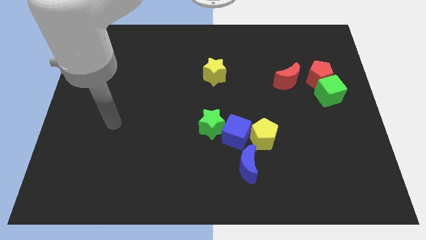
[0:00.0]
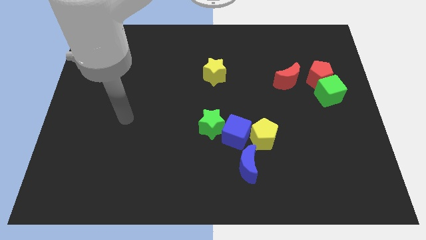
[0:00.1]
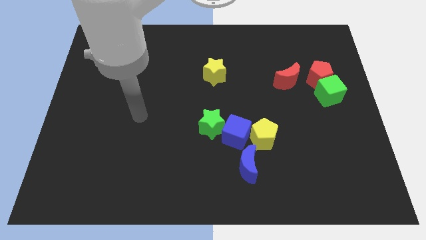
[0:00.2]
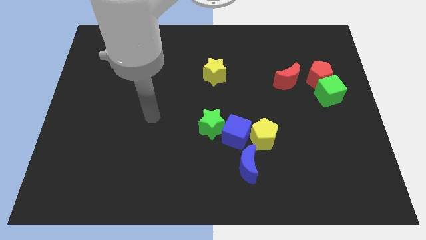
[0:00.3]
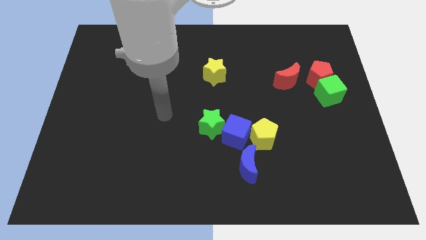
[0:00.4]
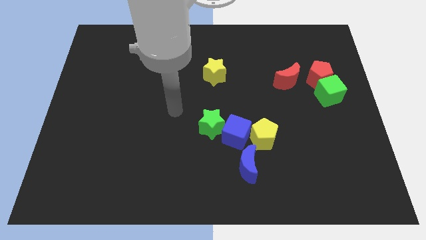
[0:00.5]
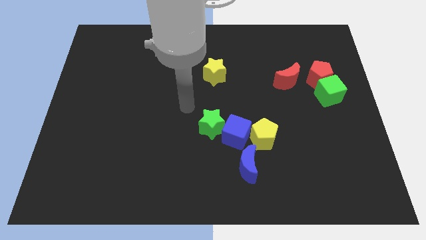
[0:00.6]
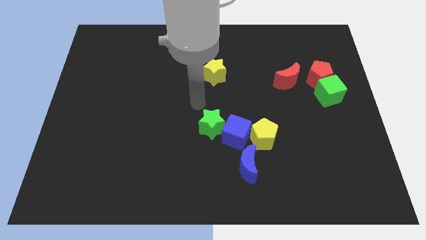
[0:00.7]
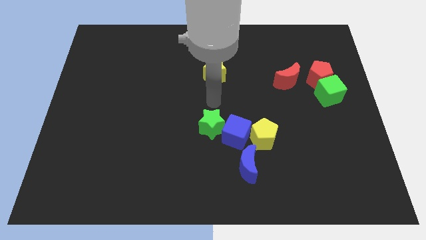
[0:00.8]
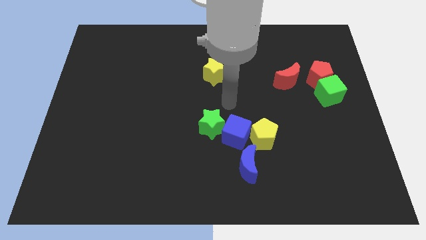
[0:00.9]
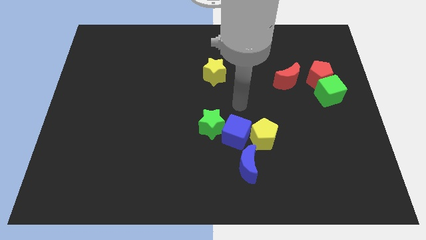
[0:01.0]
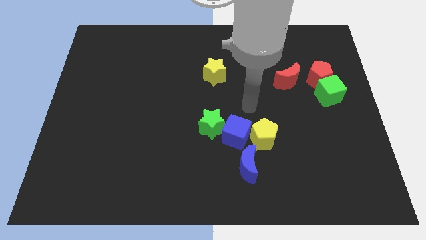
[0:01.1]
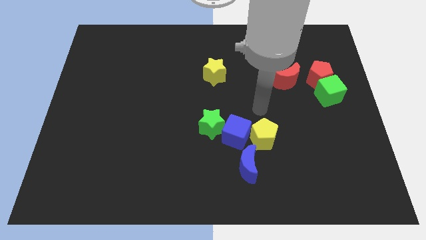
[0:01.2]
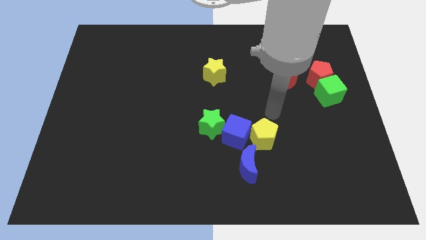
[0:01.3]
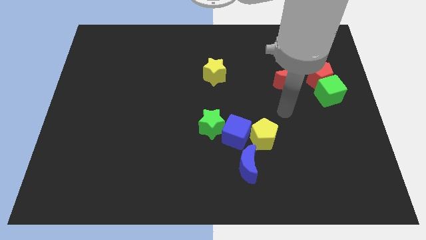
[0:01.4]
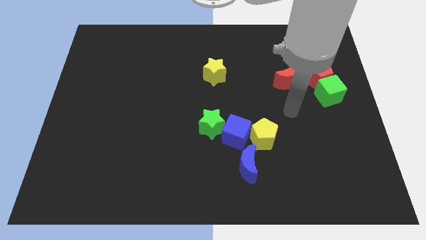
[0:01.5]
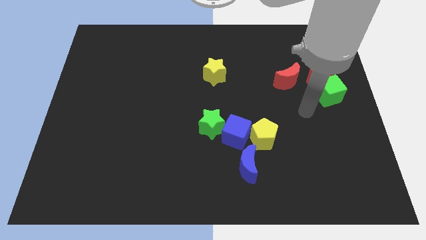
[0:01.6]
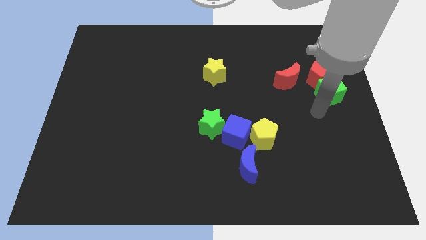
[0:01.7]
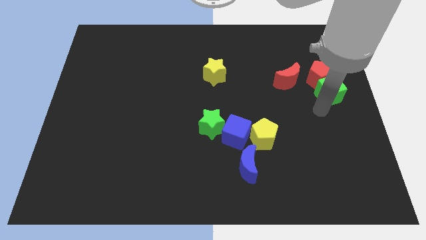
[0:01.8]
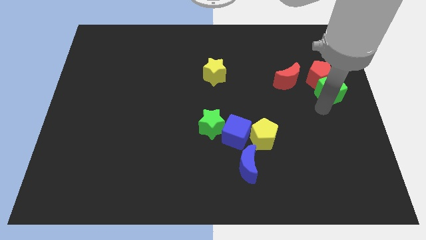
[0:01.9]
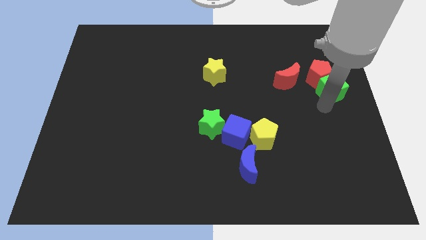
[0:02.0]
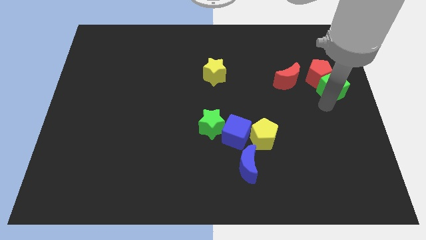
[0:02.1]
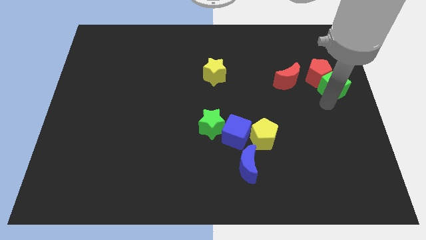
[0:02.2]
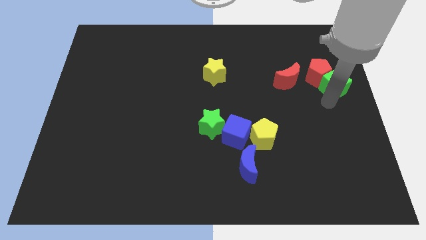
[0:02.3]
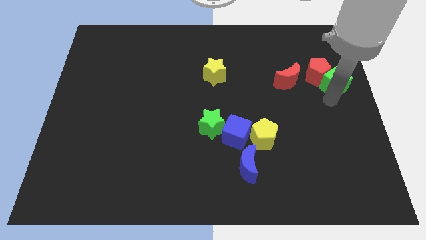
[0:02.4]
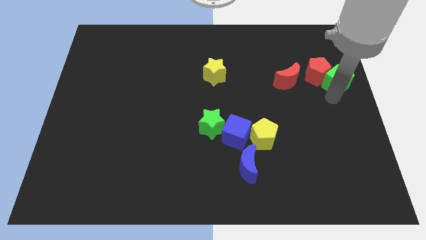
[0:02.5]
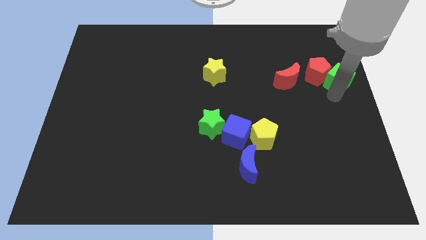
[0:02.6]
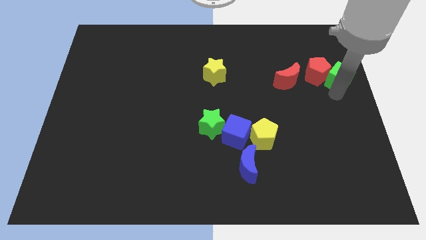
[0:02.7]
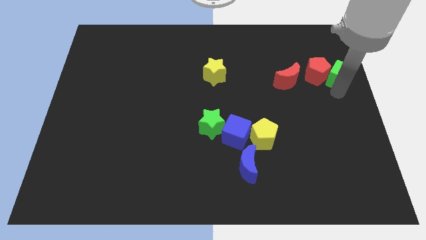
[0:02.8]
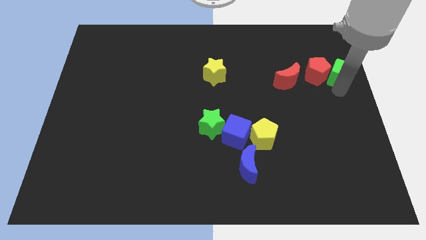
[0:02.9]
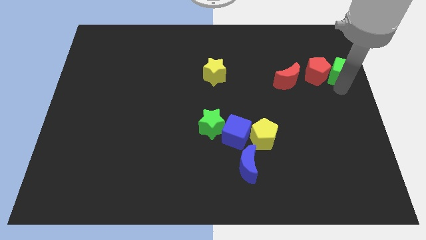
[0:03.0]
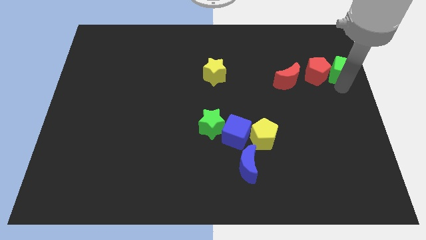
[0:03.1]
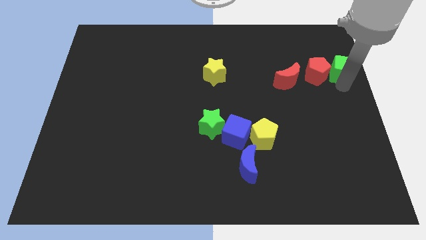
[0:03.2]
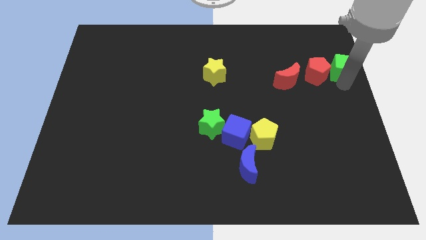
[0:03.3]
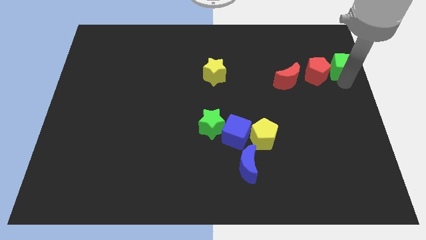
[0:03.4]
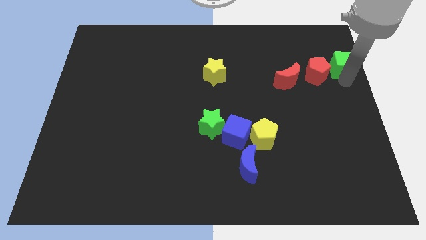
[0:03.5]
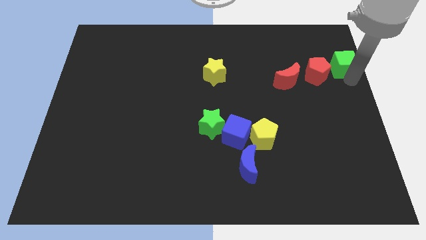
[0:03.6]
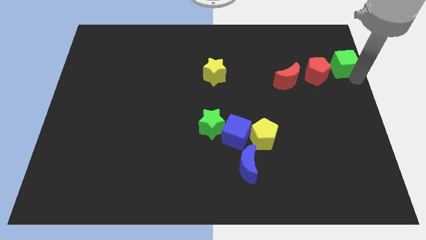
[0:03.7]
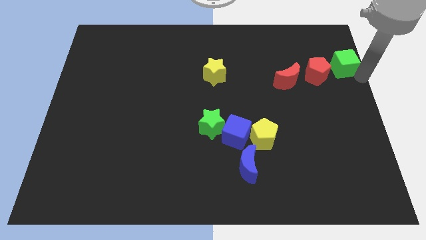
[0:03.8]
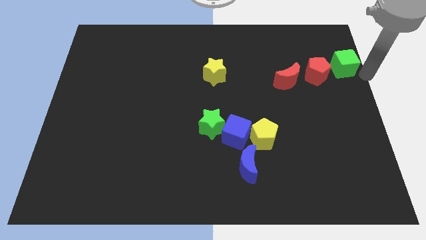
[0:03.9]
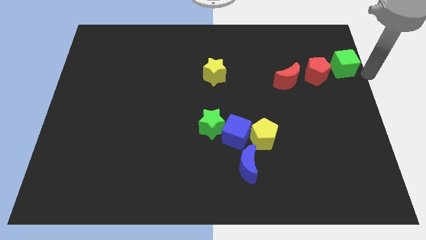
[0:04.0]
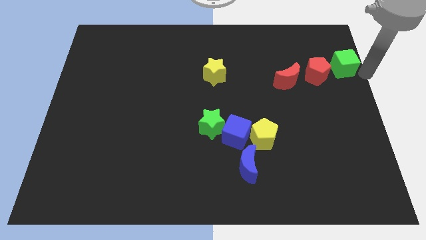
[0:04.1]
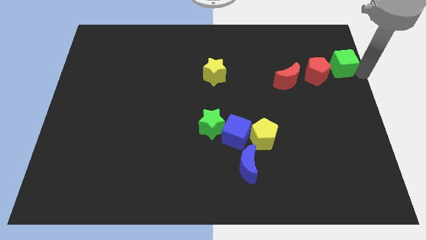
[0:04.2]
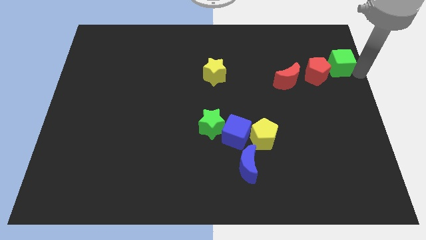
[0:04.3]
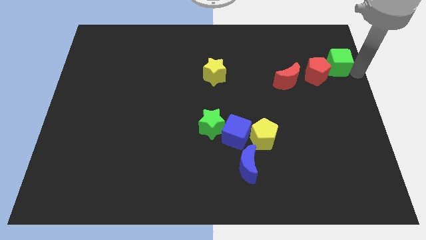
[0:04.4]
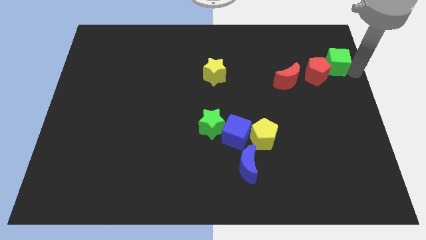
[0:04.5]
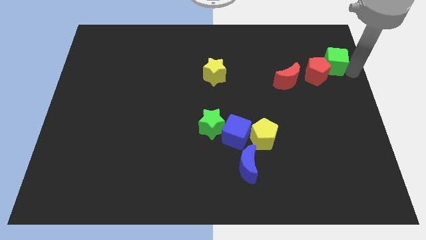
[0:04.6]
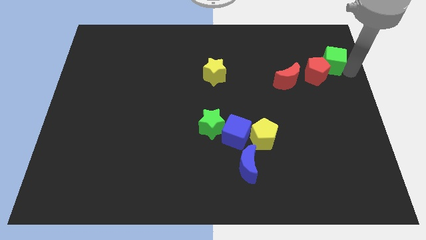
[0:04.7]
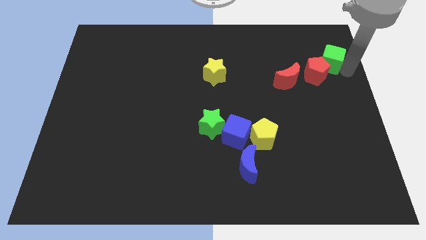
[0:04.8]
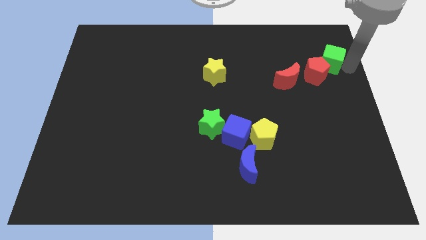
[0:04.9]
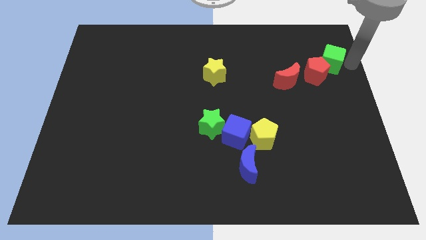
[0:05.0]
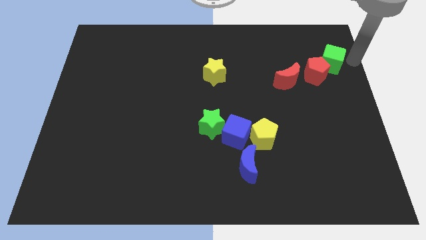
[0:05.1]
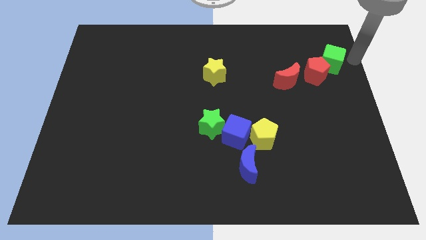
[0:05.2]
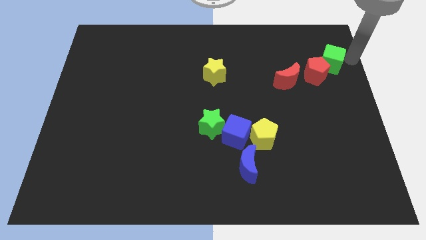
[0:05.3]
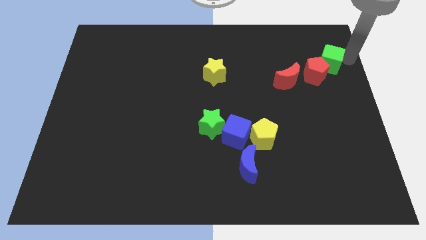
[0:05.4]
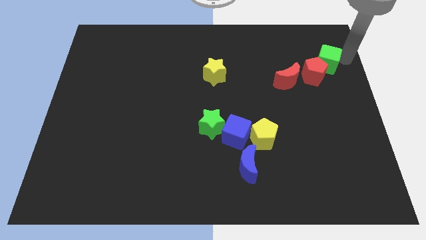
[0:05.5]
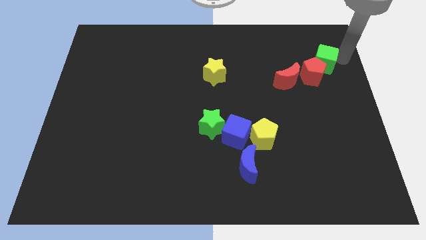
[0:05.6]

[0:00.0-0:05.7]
put the green cube to the top right of the red moon

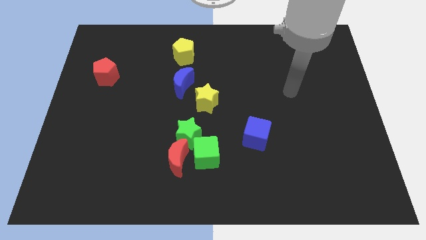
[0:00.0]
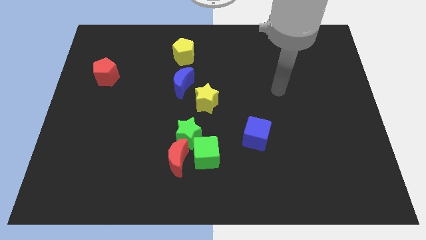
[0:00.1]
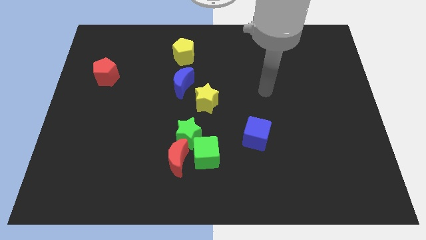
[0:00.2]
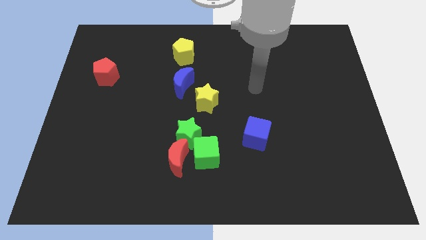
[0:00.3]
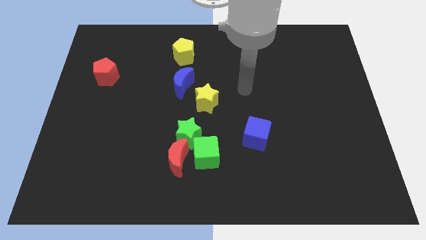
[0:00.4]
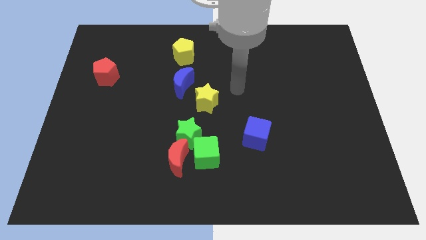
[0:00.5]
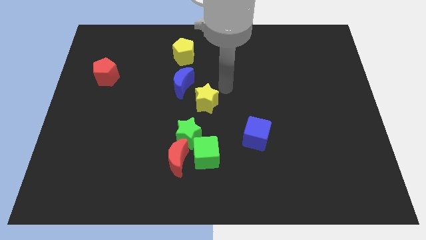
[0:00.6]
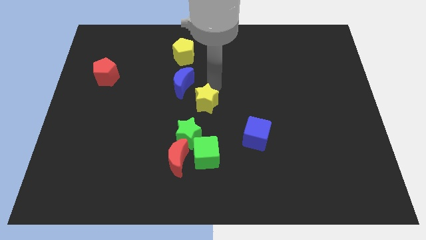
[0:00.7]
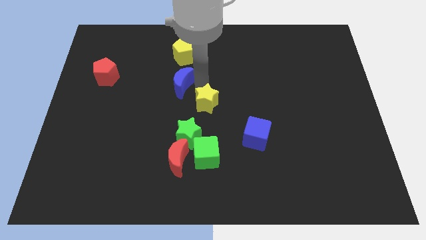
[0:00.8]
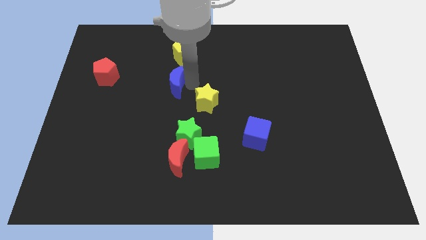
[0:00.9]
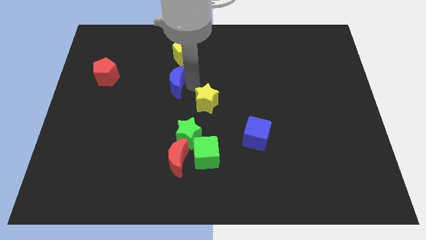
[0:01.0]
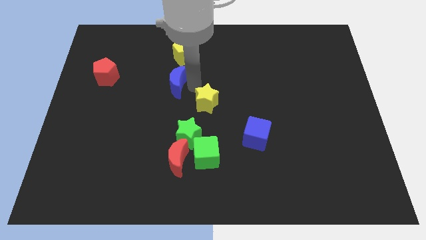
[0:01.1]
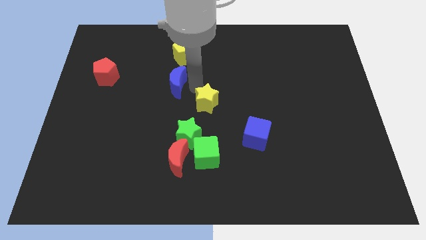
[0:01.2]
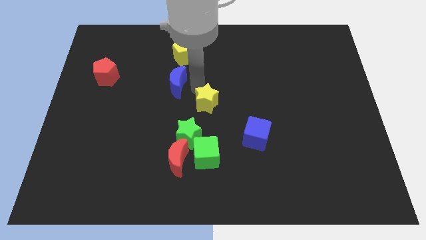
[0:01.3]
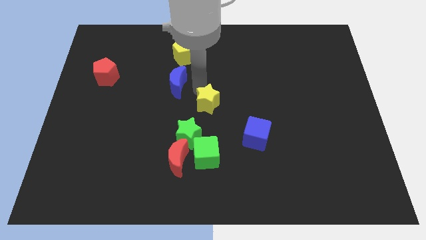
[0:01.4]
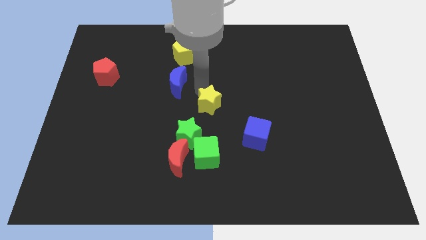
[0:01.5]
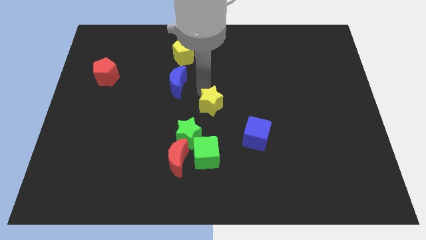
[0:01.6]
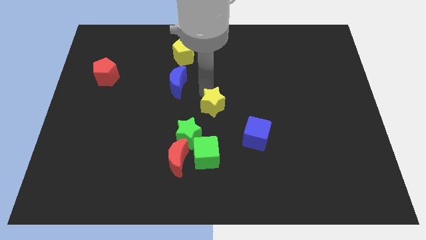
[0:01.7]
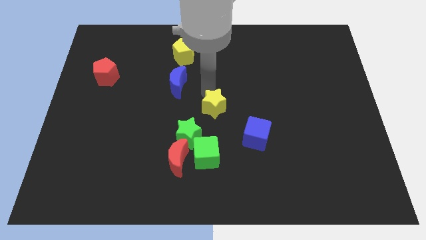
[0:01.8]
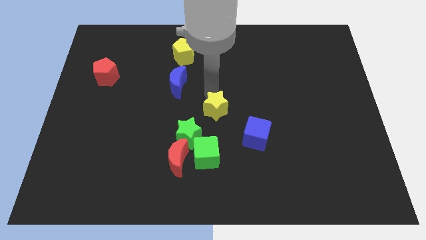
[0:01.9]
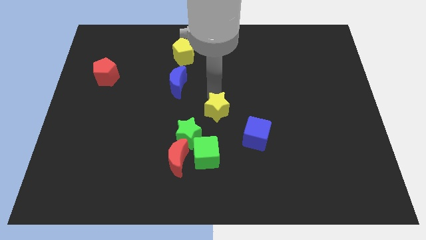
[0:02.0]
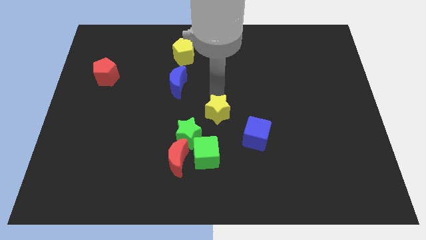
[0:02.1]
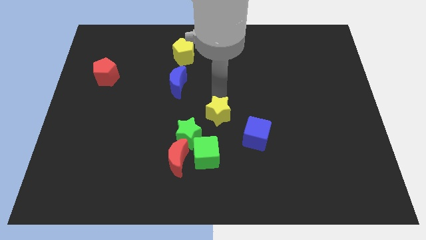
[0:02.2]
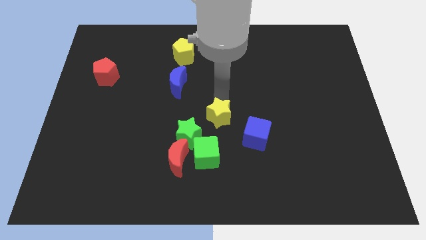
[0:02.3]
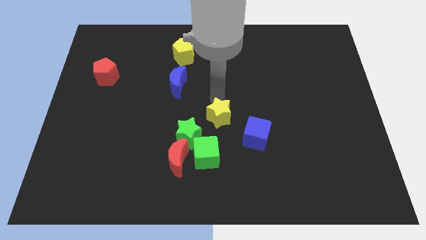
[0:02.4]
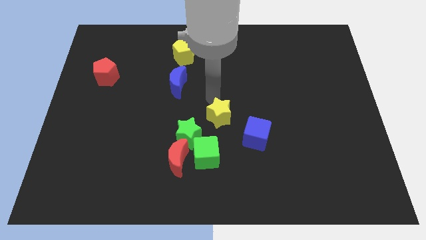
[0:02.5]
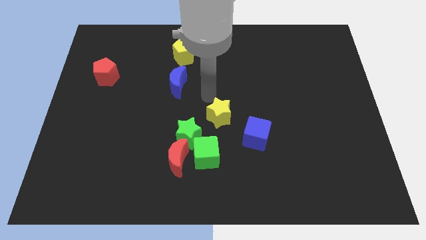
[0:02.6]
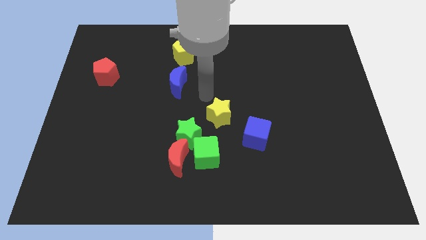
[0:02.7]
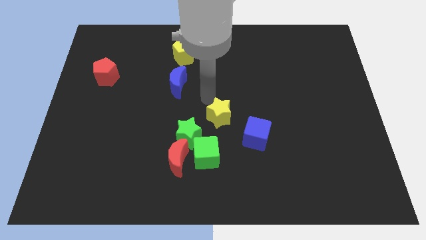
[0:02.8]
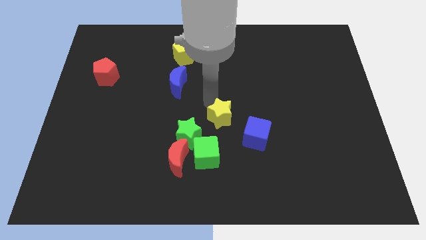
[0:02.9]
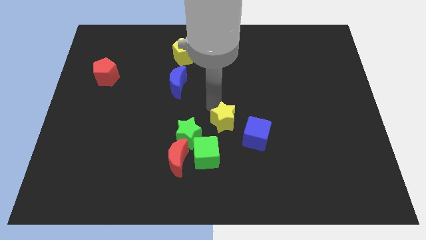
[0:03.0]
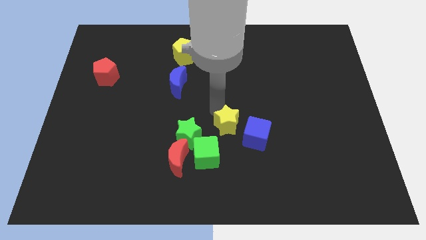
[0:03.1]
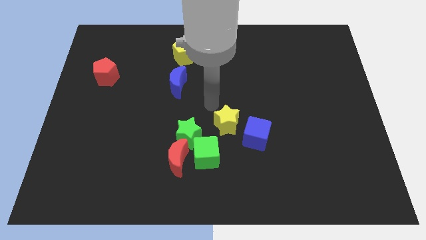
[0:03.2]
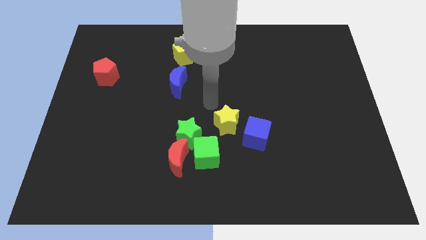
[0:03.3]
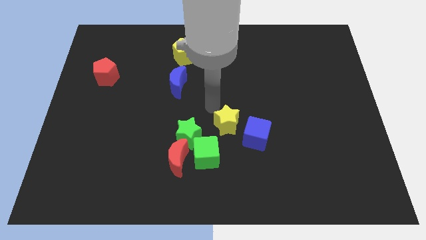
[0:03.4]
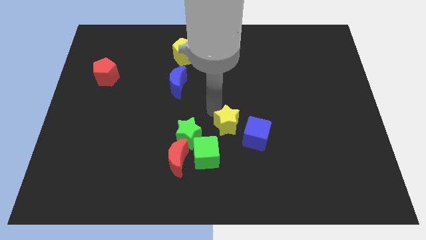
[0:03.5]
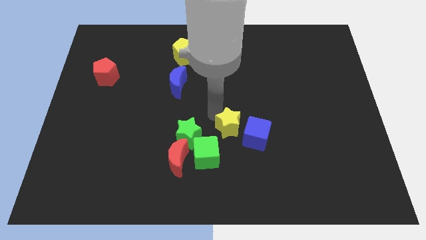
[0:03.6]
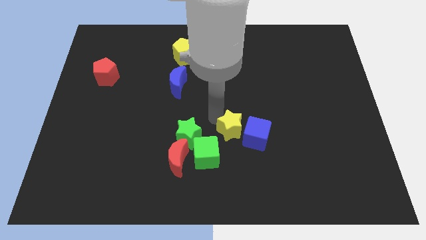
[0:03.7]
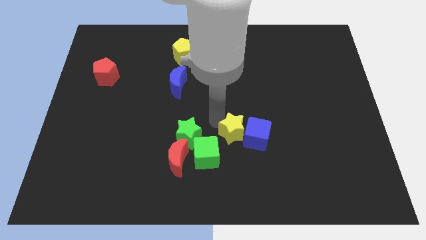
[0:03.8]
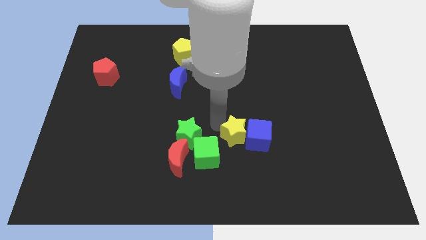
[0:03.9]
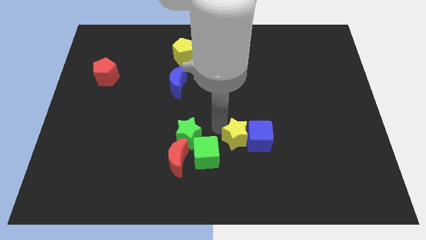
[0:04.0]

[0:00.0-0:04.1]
push the yellow star to the right side of the green cube
